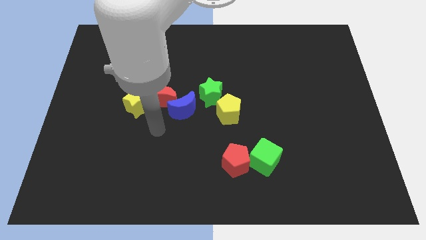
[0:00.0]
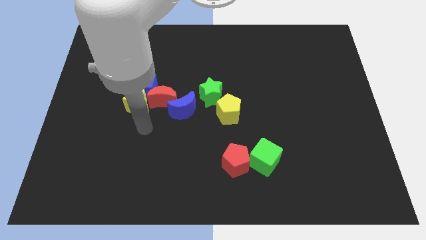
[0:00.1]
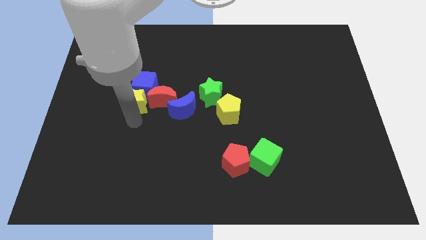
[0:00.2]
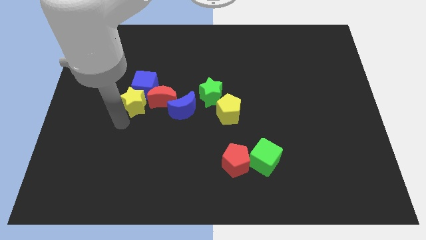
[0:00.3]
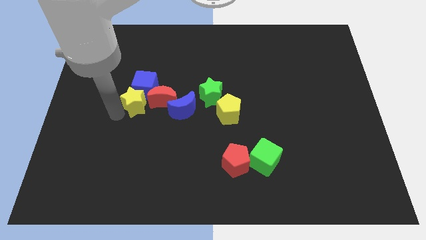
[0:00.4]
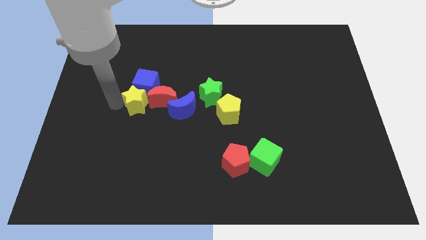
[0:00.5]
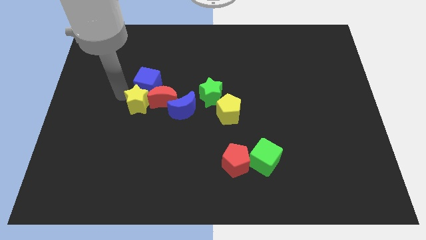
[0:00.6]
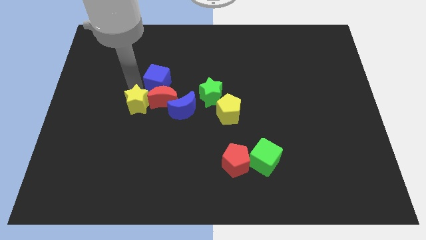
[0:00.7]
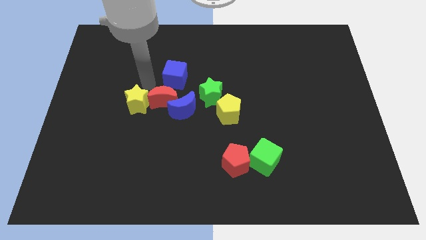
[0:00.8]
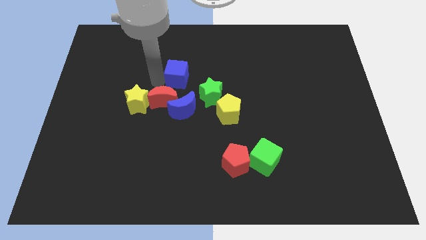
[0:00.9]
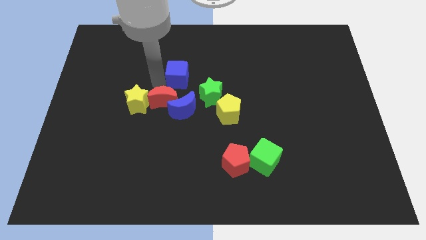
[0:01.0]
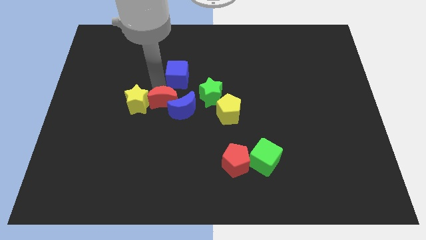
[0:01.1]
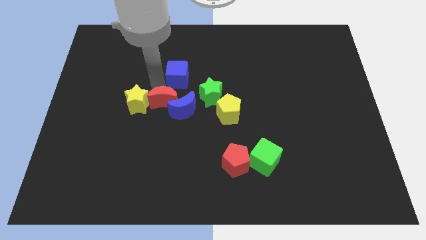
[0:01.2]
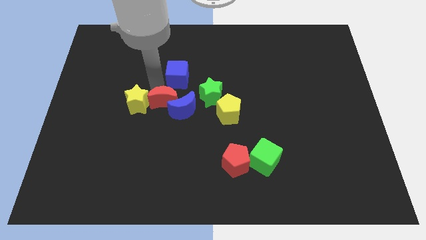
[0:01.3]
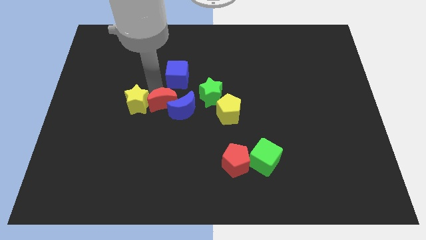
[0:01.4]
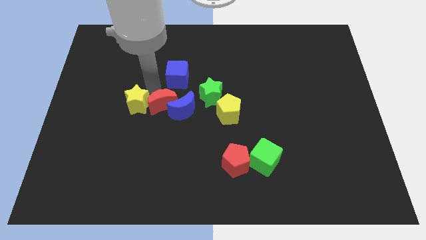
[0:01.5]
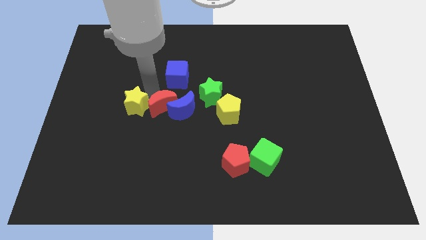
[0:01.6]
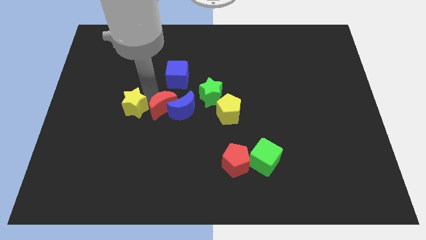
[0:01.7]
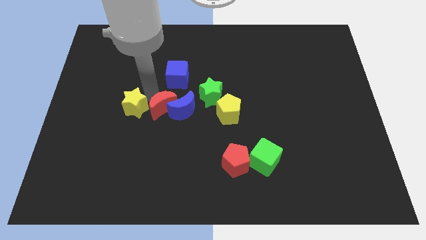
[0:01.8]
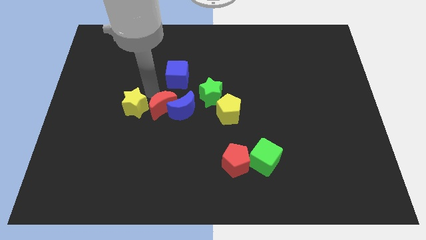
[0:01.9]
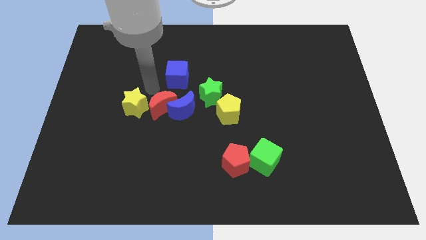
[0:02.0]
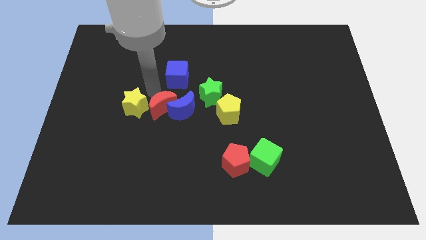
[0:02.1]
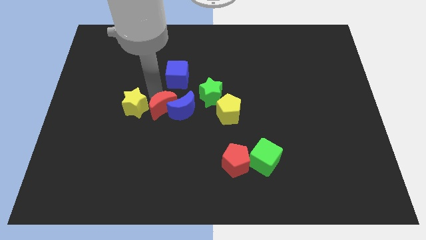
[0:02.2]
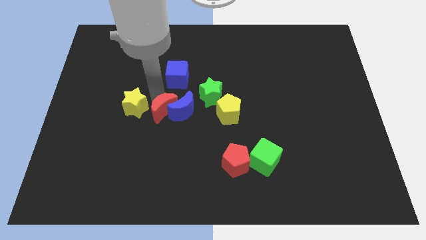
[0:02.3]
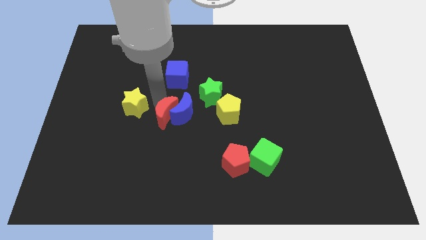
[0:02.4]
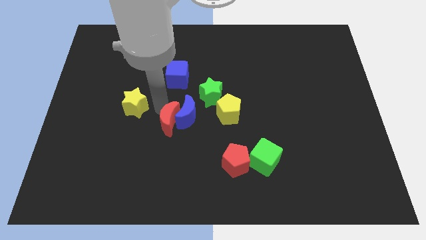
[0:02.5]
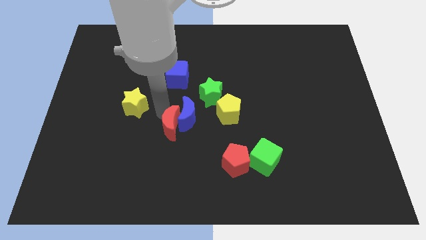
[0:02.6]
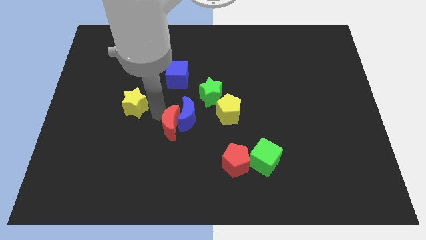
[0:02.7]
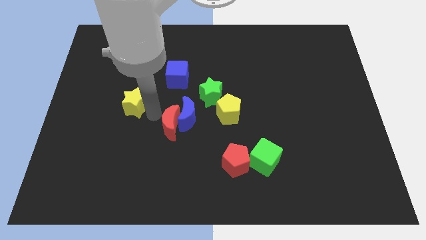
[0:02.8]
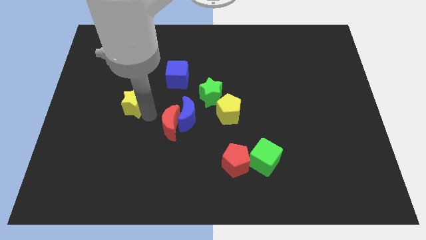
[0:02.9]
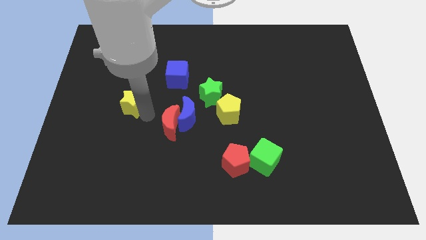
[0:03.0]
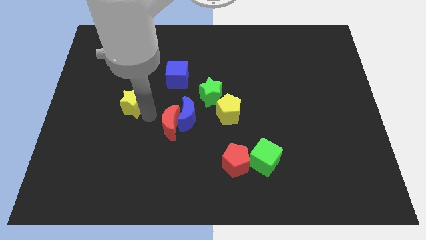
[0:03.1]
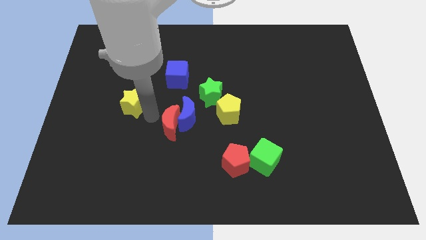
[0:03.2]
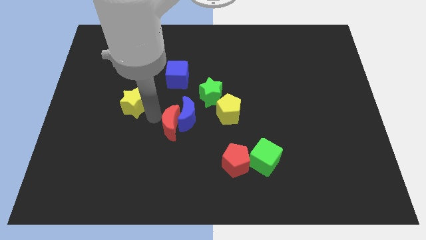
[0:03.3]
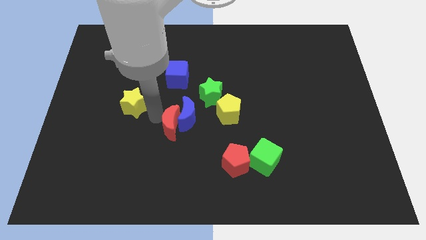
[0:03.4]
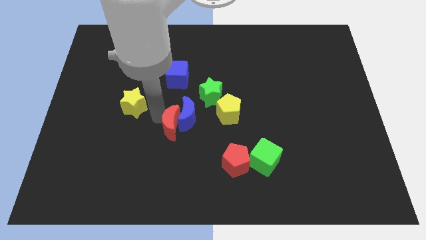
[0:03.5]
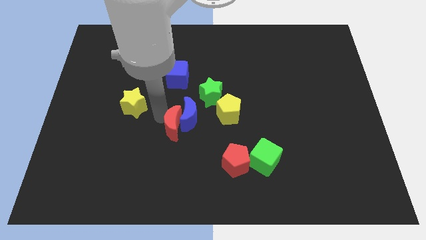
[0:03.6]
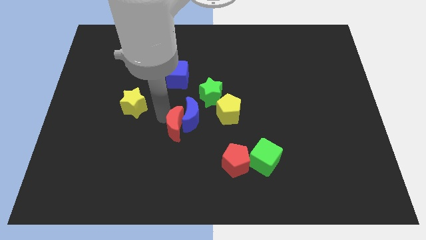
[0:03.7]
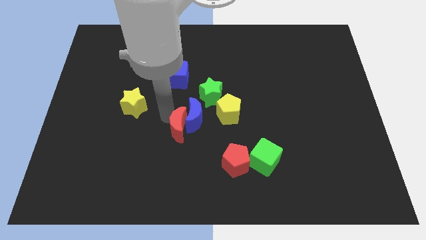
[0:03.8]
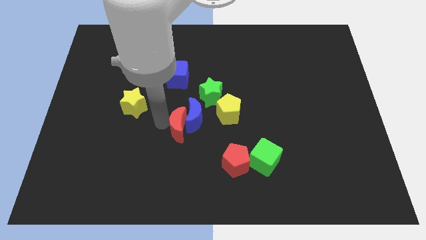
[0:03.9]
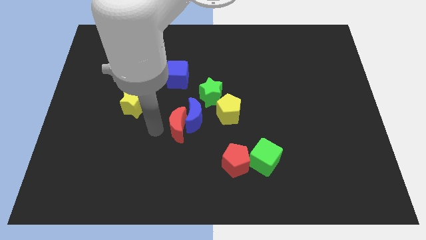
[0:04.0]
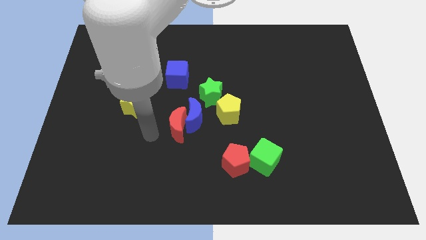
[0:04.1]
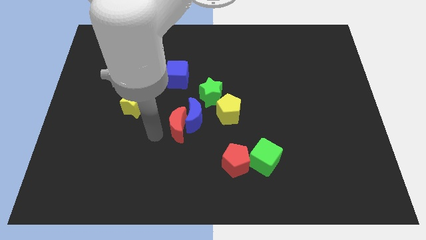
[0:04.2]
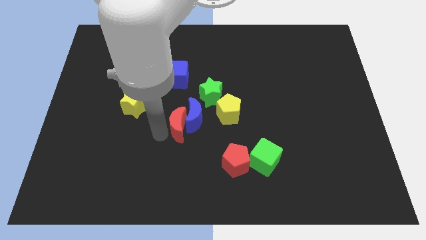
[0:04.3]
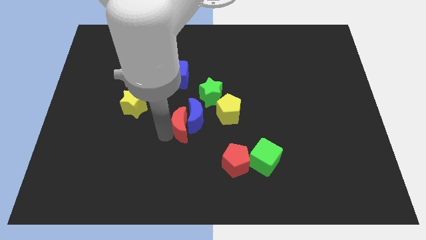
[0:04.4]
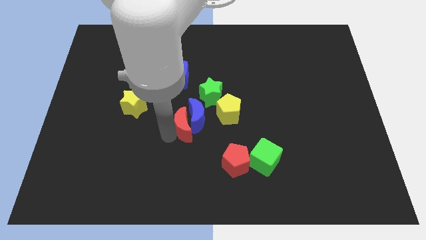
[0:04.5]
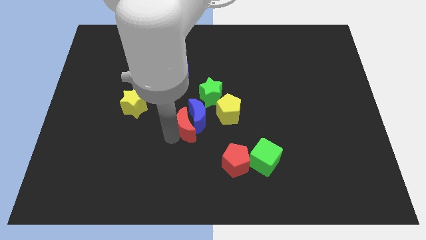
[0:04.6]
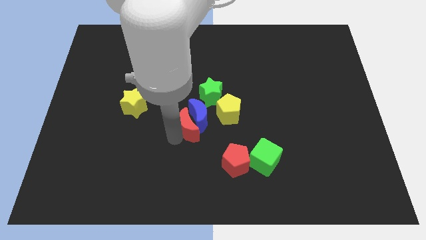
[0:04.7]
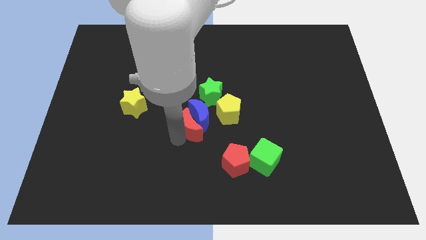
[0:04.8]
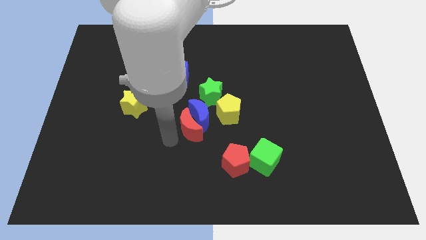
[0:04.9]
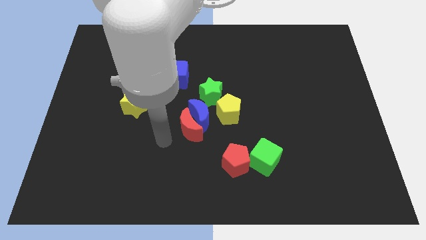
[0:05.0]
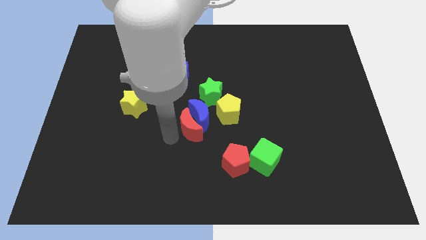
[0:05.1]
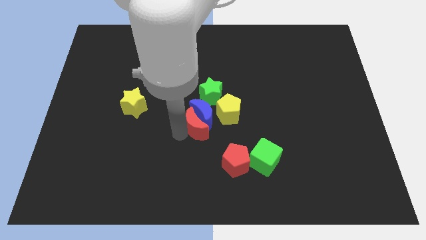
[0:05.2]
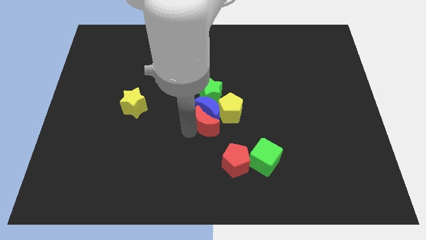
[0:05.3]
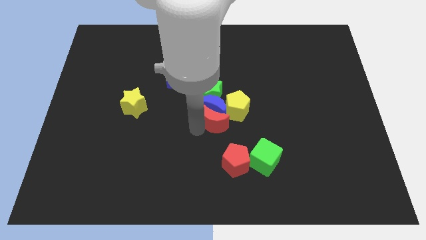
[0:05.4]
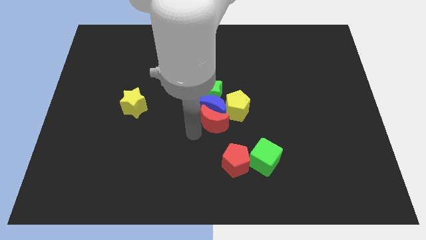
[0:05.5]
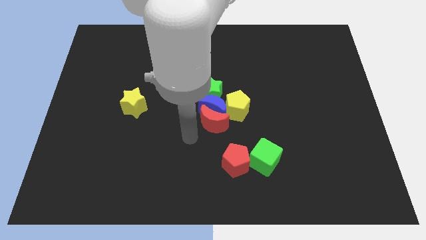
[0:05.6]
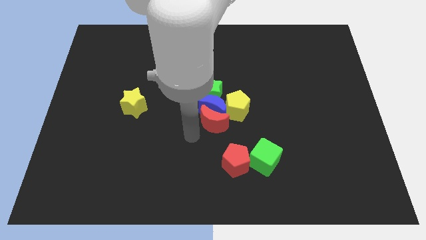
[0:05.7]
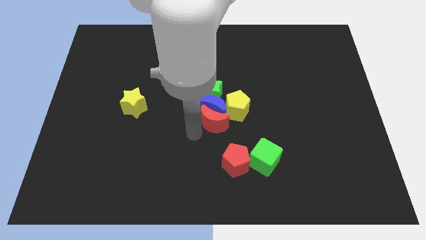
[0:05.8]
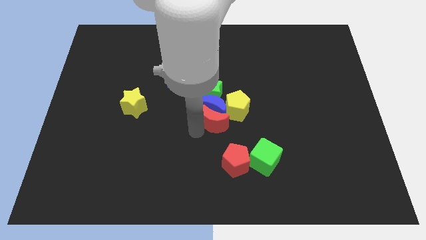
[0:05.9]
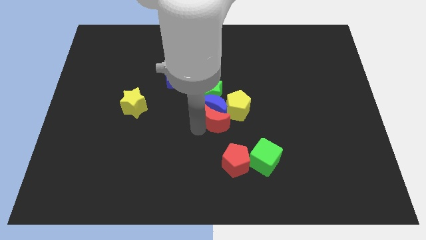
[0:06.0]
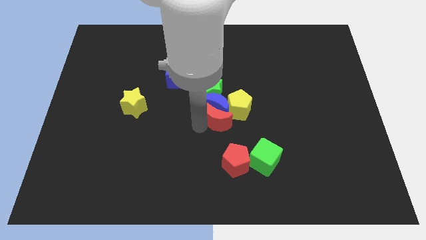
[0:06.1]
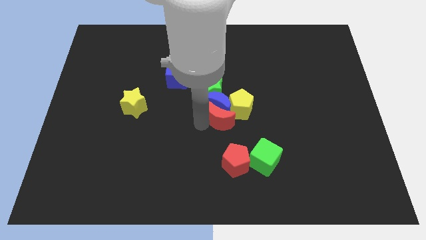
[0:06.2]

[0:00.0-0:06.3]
slide the red moon close to the yellow pentagon

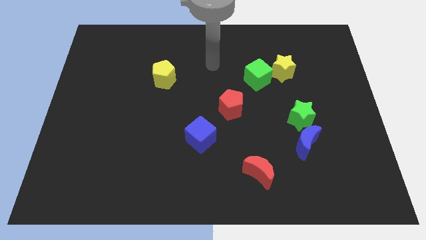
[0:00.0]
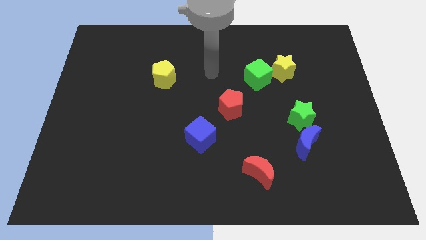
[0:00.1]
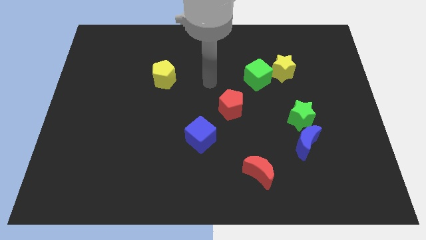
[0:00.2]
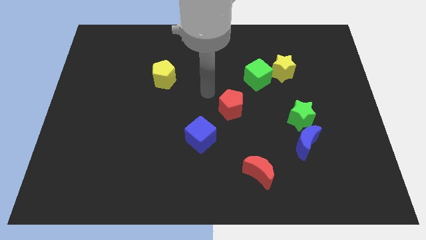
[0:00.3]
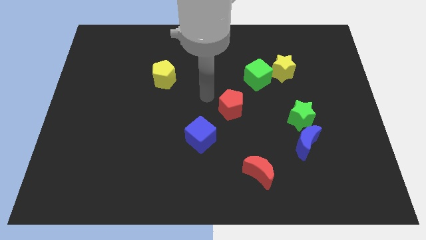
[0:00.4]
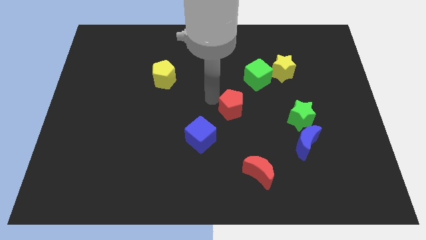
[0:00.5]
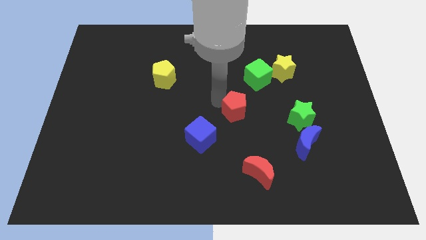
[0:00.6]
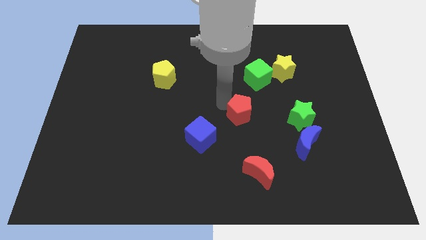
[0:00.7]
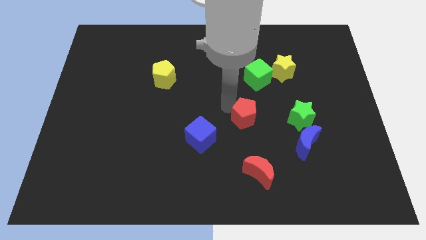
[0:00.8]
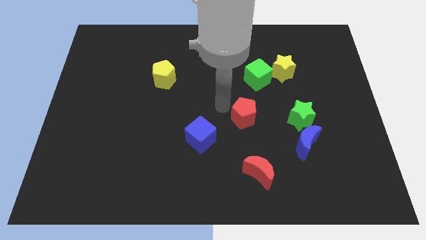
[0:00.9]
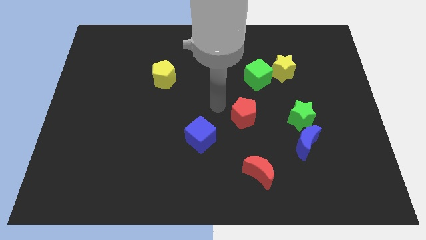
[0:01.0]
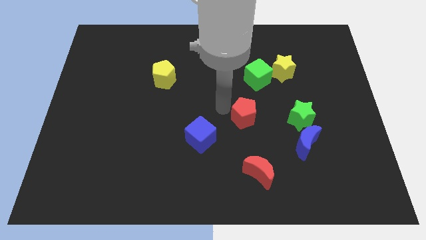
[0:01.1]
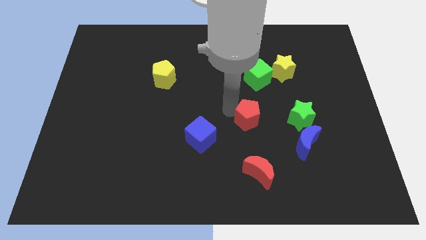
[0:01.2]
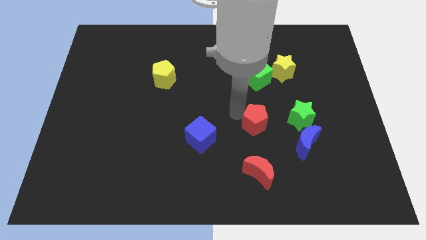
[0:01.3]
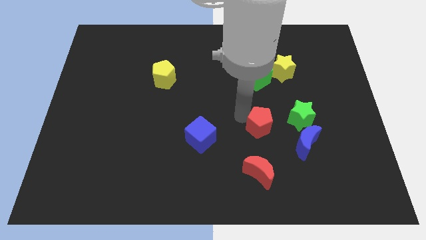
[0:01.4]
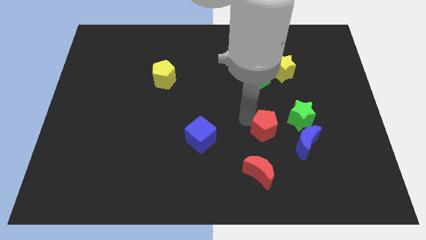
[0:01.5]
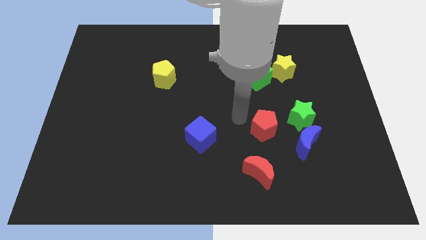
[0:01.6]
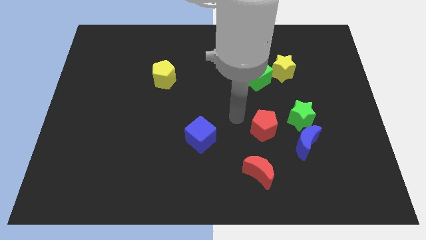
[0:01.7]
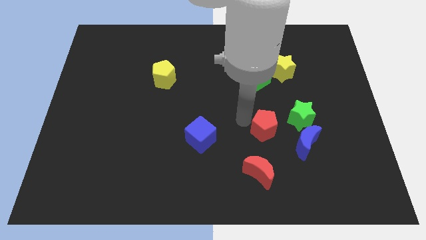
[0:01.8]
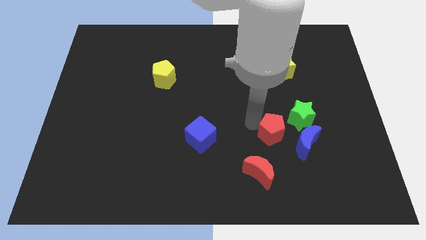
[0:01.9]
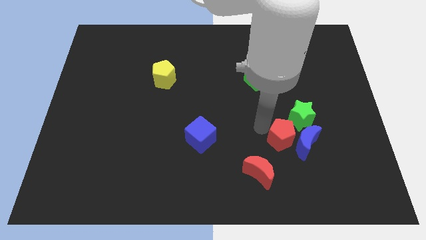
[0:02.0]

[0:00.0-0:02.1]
put the red pentagon close to the blue moon
